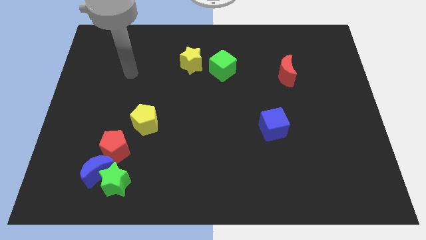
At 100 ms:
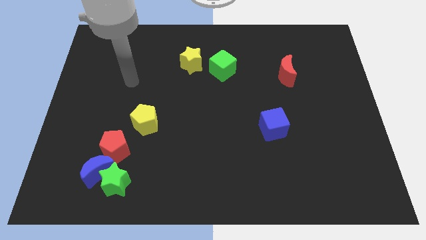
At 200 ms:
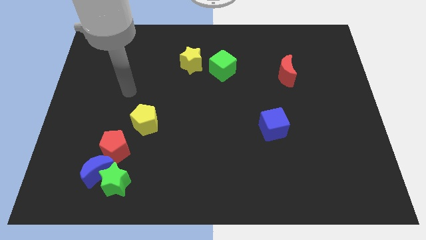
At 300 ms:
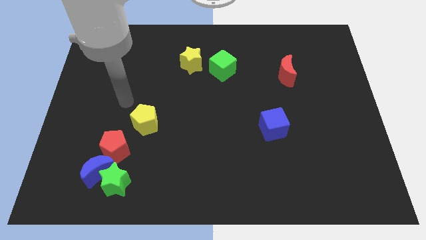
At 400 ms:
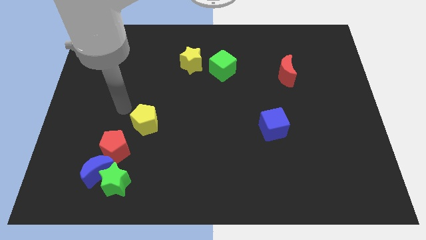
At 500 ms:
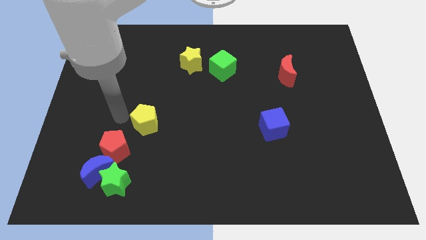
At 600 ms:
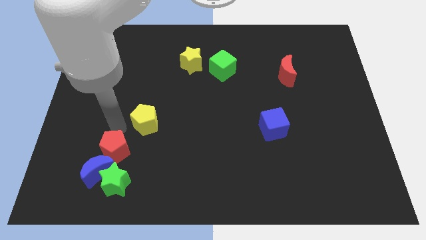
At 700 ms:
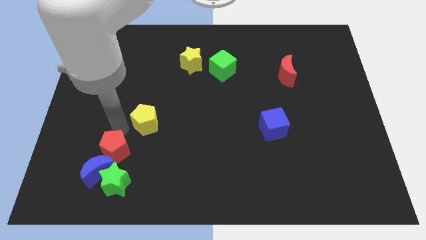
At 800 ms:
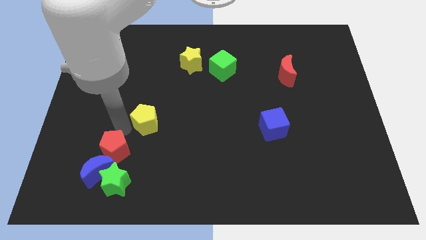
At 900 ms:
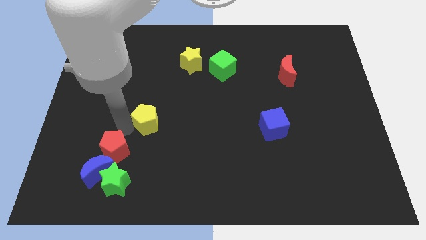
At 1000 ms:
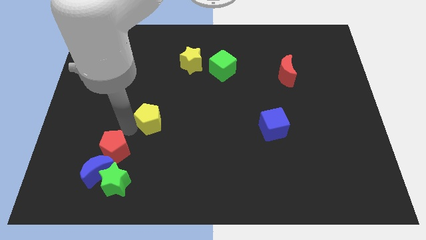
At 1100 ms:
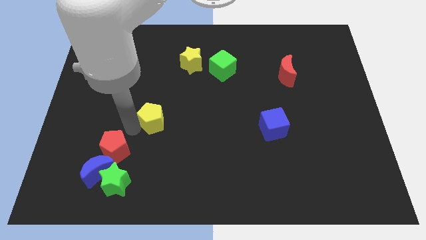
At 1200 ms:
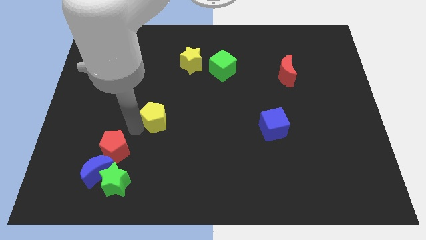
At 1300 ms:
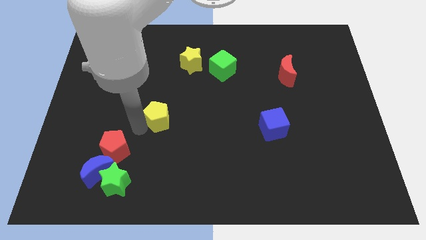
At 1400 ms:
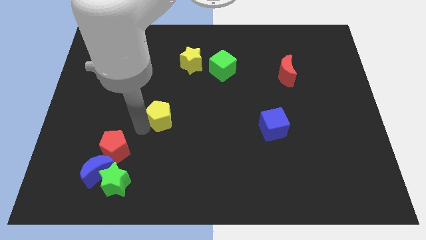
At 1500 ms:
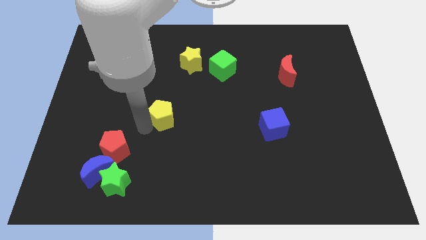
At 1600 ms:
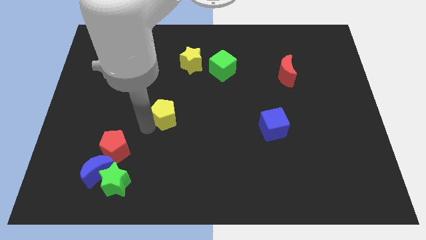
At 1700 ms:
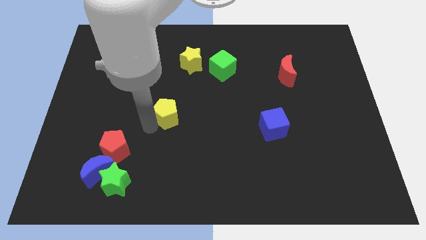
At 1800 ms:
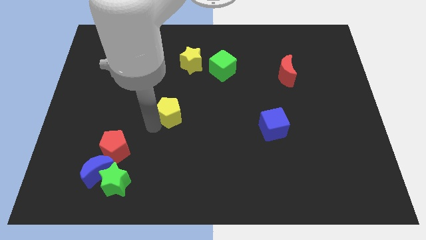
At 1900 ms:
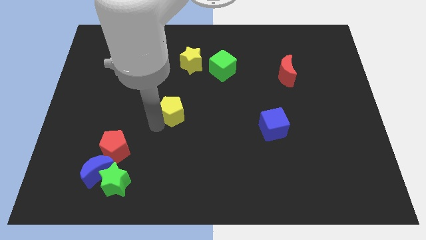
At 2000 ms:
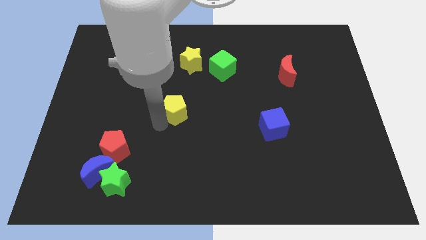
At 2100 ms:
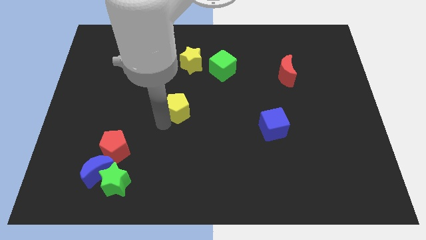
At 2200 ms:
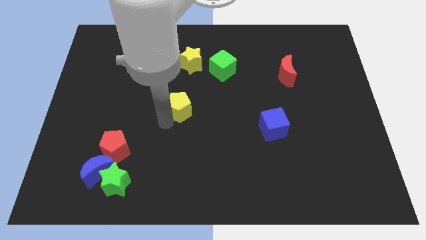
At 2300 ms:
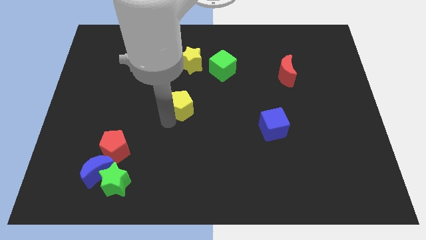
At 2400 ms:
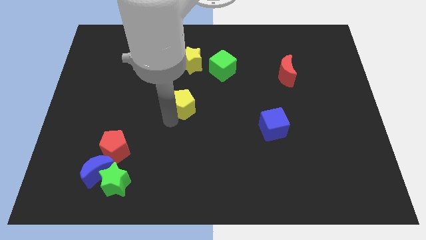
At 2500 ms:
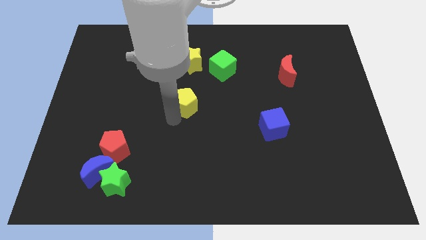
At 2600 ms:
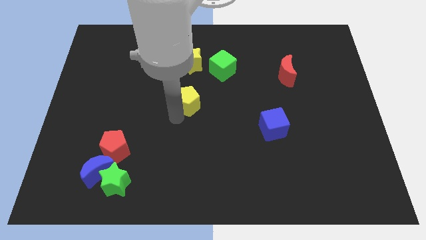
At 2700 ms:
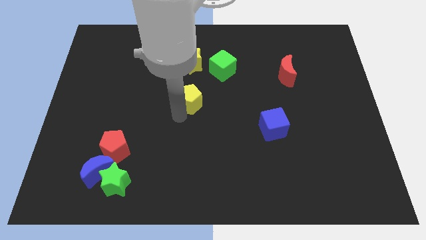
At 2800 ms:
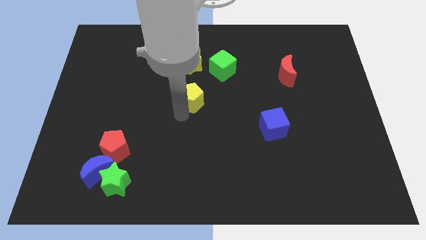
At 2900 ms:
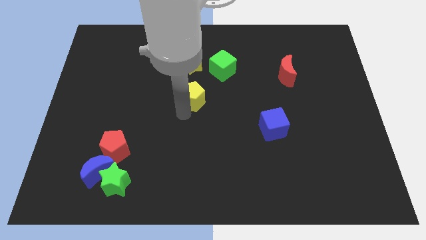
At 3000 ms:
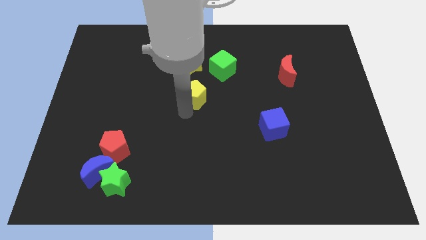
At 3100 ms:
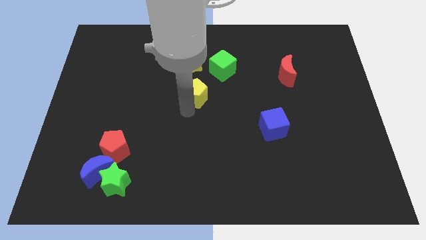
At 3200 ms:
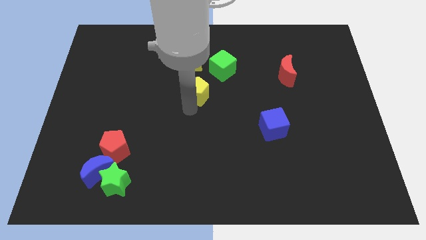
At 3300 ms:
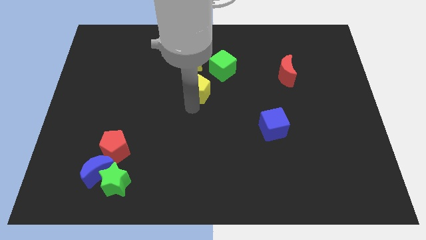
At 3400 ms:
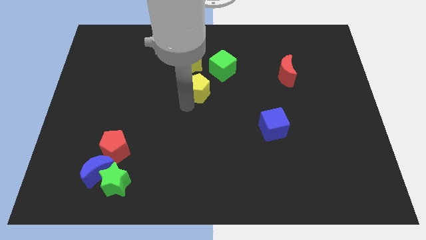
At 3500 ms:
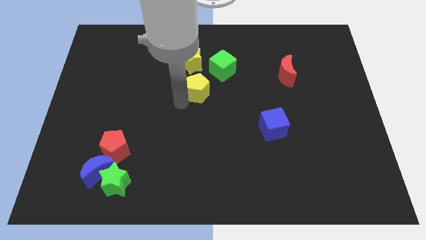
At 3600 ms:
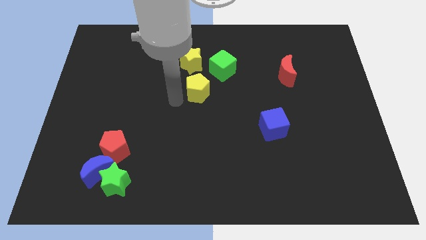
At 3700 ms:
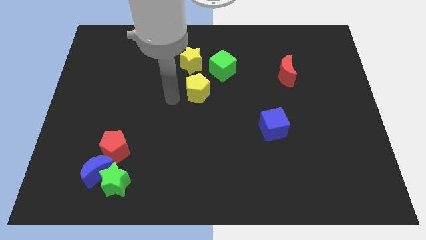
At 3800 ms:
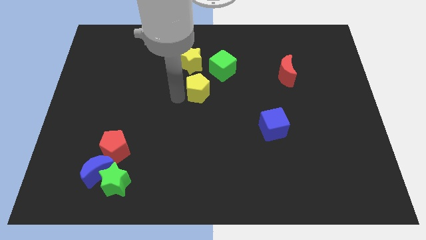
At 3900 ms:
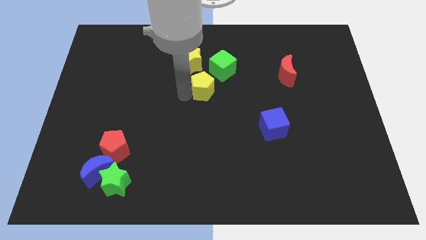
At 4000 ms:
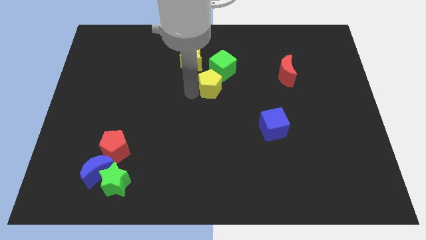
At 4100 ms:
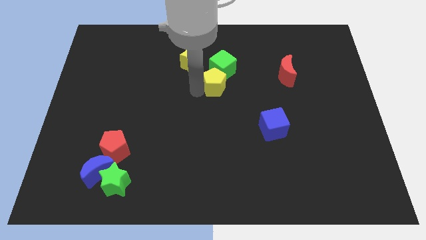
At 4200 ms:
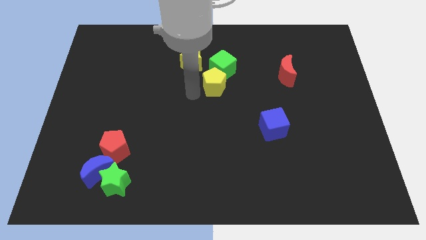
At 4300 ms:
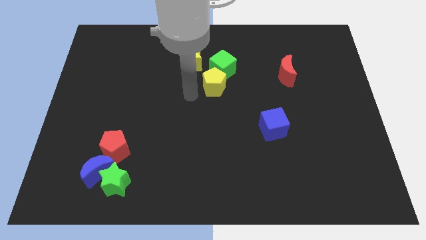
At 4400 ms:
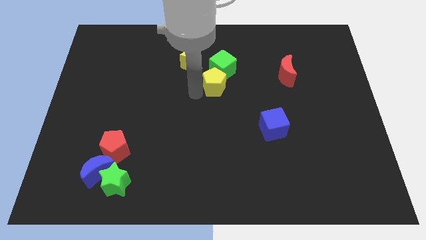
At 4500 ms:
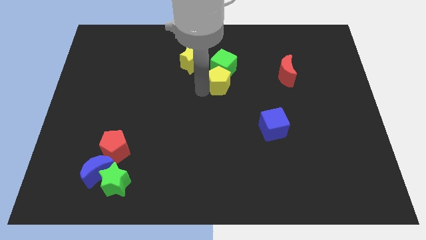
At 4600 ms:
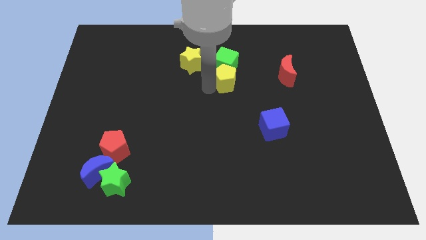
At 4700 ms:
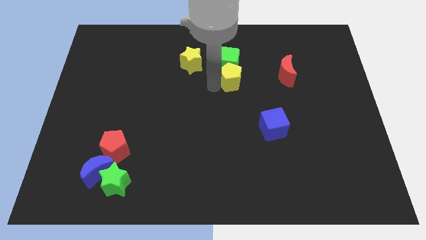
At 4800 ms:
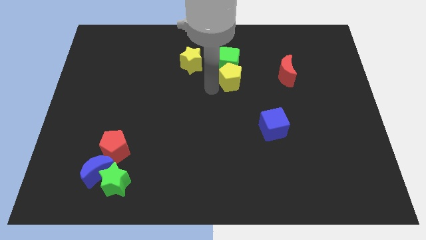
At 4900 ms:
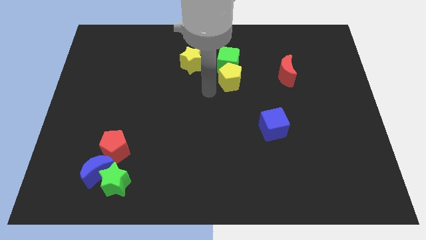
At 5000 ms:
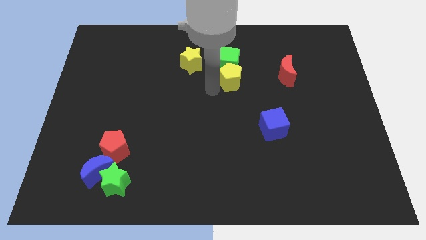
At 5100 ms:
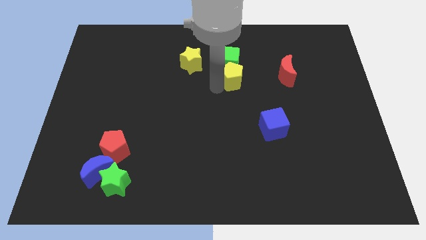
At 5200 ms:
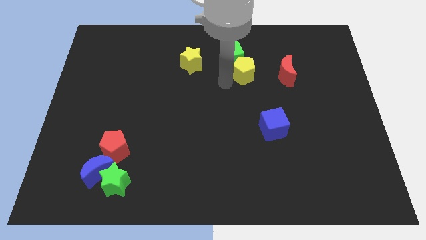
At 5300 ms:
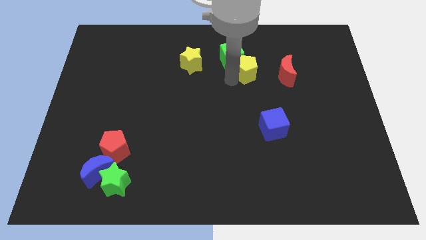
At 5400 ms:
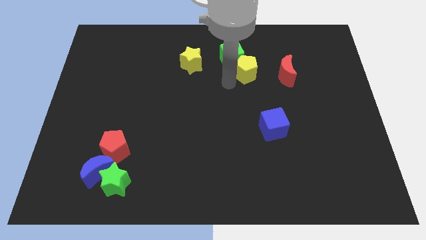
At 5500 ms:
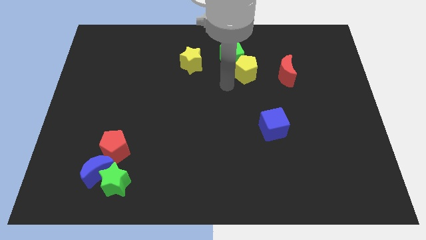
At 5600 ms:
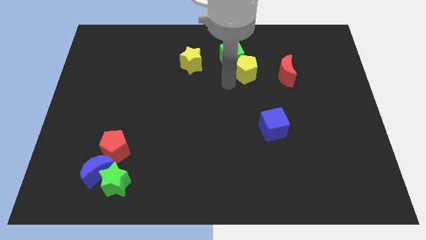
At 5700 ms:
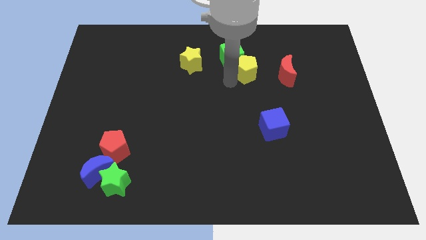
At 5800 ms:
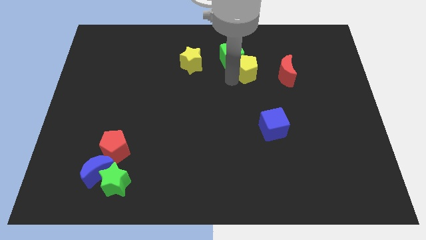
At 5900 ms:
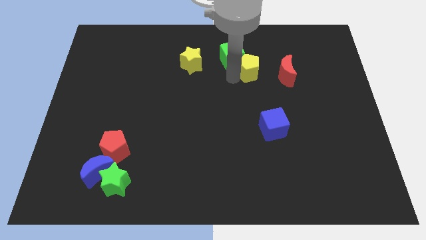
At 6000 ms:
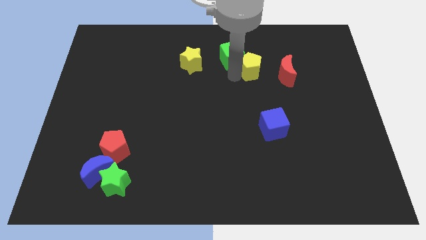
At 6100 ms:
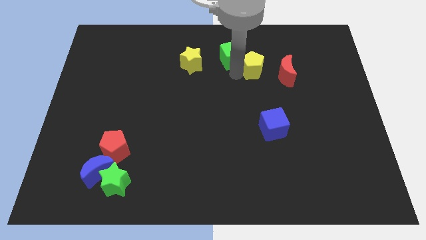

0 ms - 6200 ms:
move the yellow pentagon to the top left side of the red moon

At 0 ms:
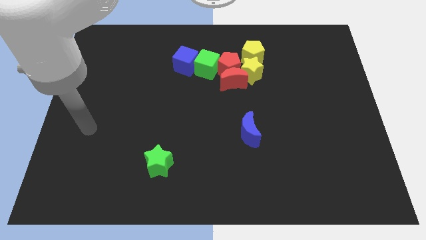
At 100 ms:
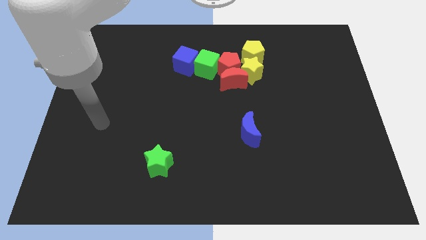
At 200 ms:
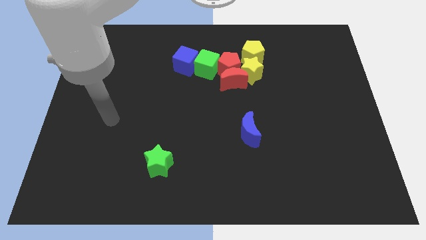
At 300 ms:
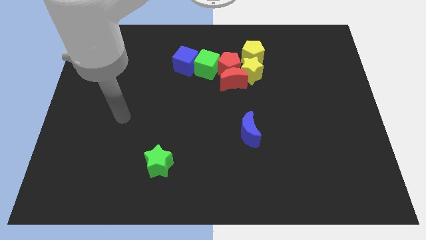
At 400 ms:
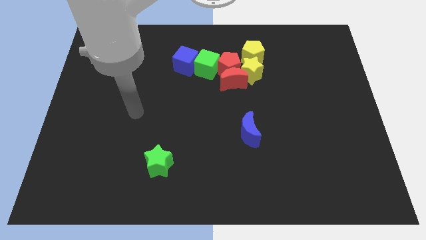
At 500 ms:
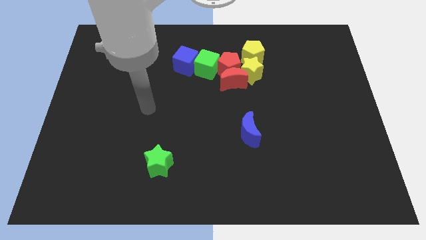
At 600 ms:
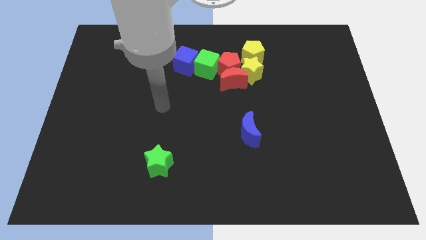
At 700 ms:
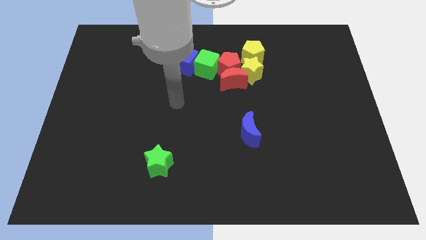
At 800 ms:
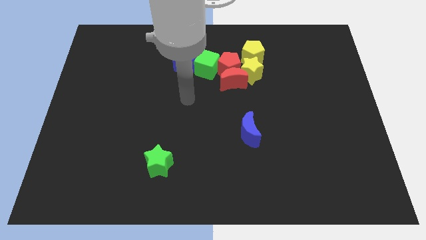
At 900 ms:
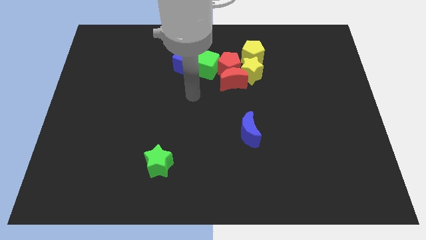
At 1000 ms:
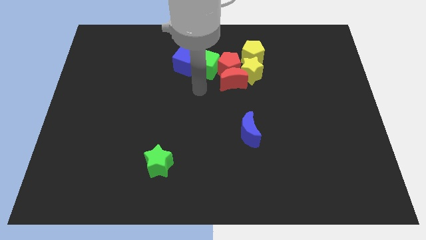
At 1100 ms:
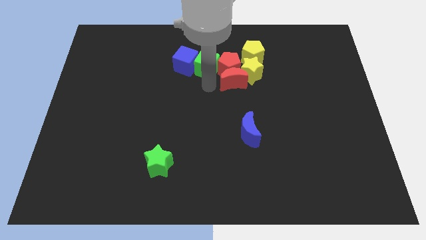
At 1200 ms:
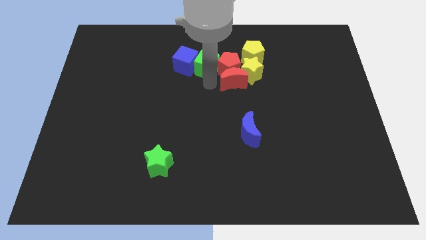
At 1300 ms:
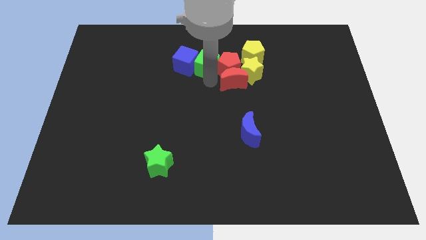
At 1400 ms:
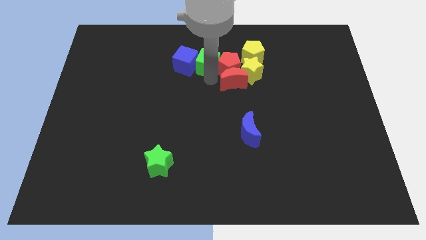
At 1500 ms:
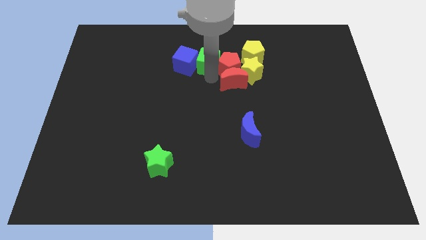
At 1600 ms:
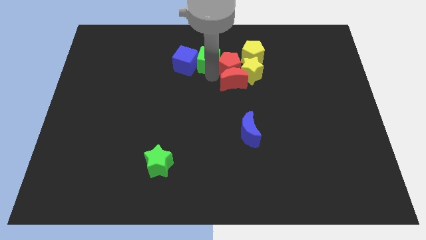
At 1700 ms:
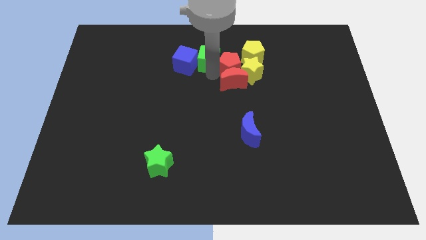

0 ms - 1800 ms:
slide the green cube to the top left side of the yellow star
